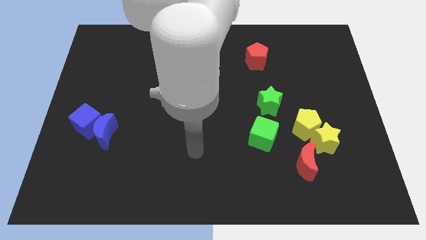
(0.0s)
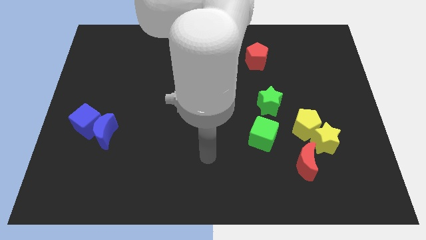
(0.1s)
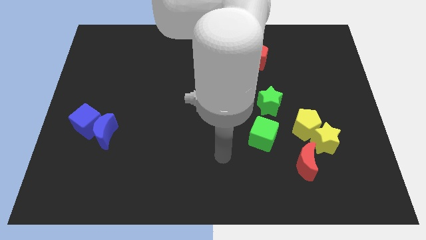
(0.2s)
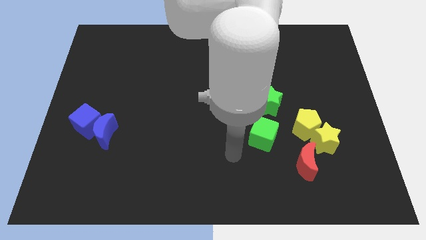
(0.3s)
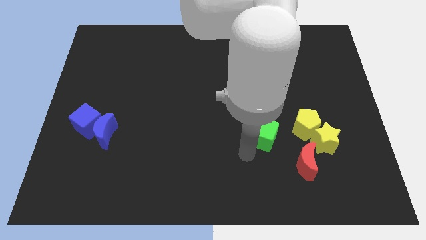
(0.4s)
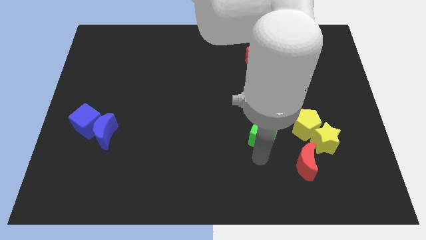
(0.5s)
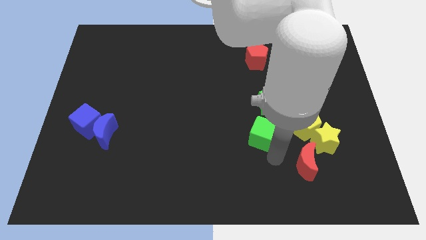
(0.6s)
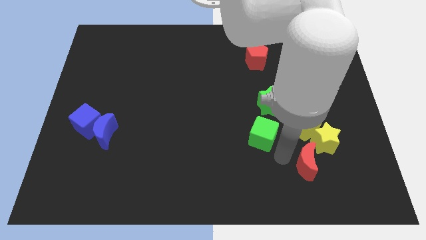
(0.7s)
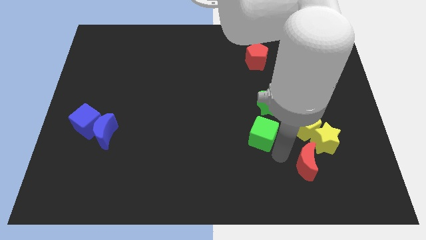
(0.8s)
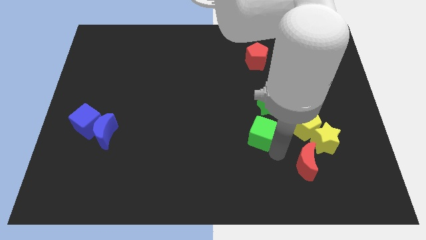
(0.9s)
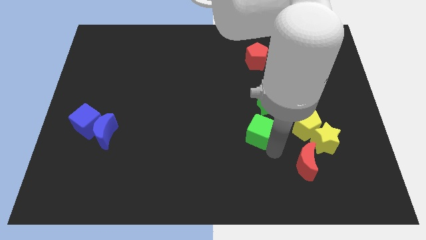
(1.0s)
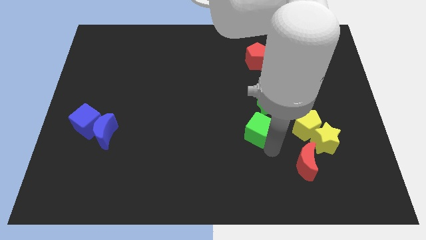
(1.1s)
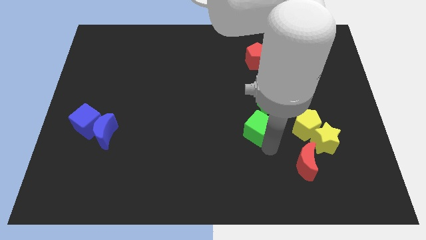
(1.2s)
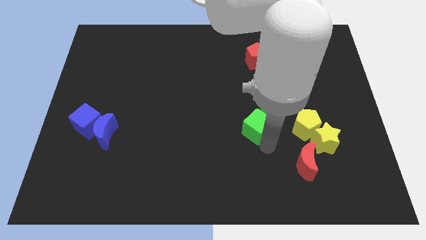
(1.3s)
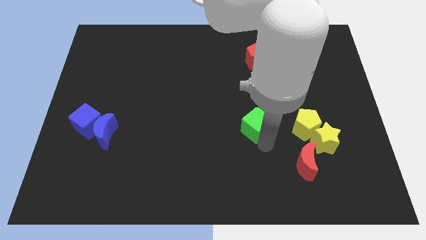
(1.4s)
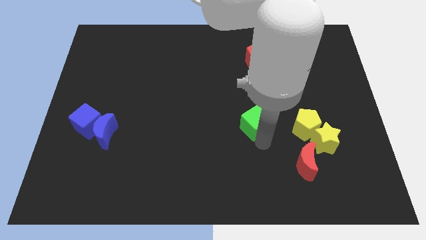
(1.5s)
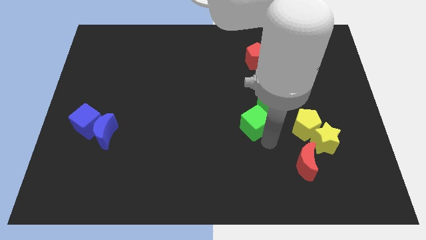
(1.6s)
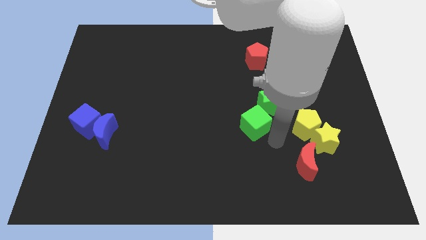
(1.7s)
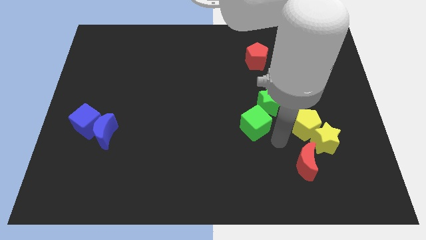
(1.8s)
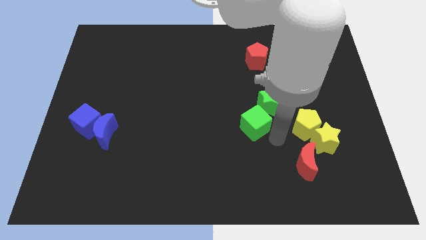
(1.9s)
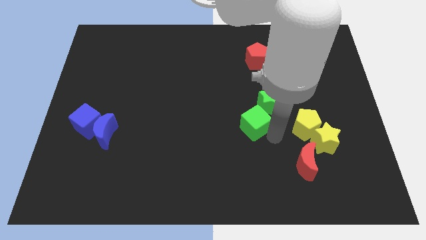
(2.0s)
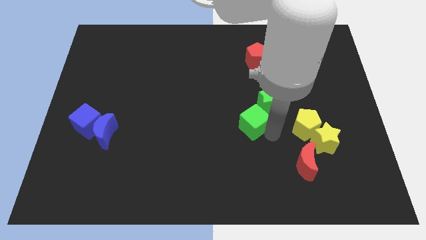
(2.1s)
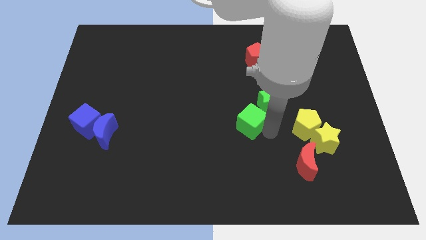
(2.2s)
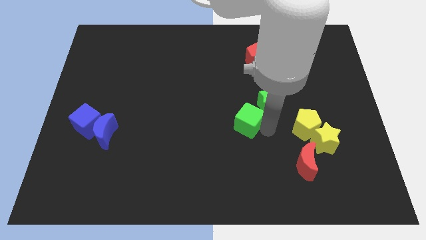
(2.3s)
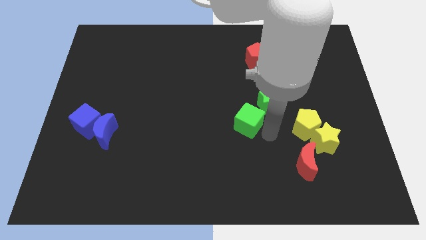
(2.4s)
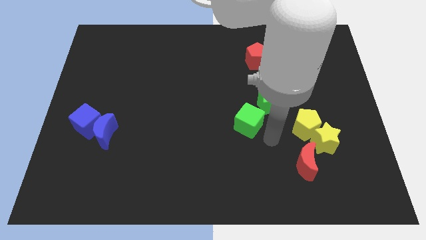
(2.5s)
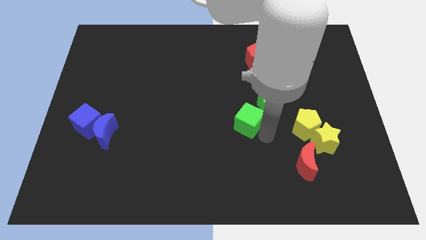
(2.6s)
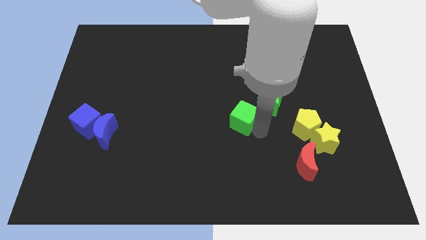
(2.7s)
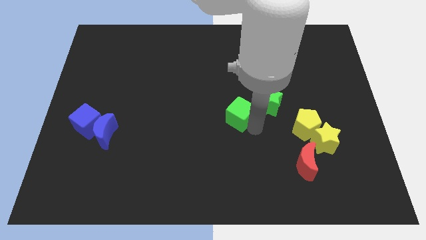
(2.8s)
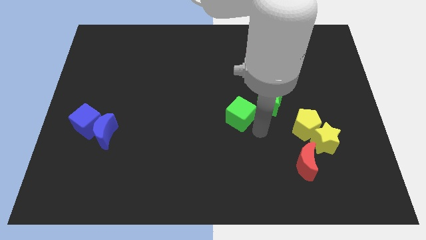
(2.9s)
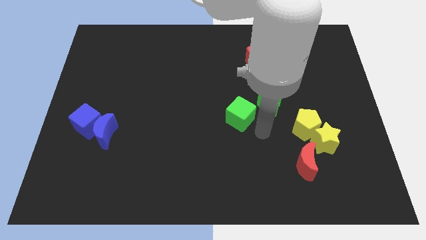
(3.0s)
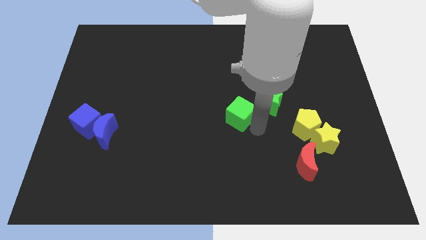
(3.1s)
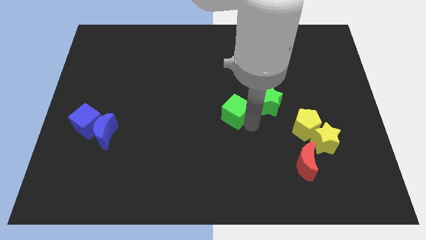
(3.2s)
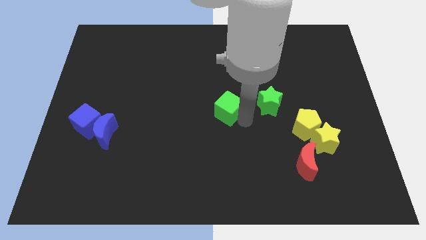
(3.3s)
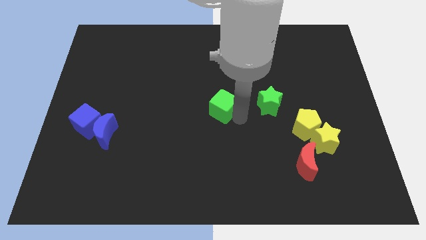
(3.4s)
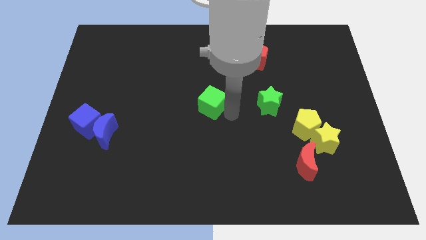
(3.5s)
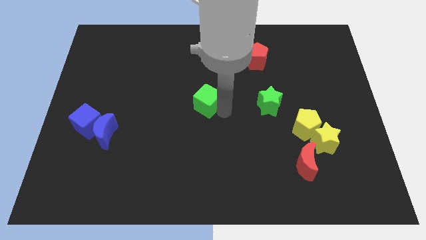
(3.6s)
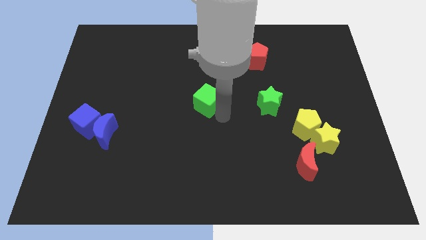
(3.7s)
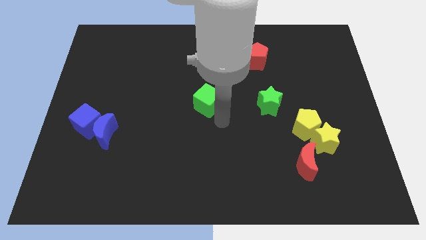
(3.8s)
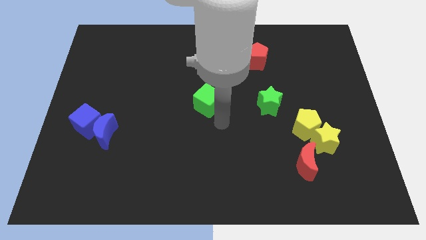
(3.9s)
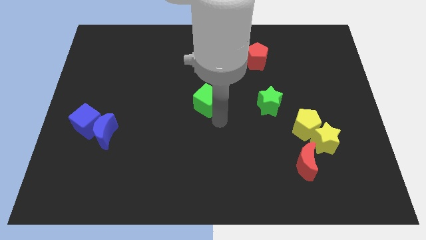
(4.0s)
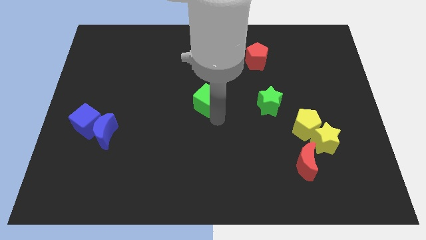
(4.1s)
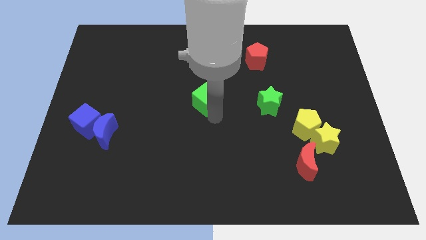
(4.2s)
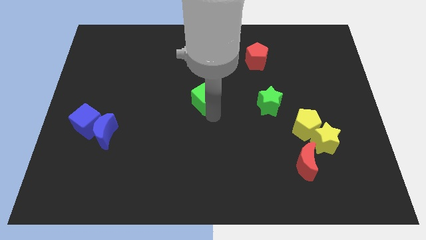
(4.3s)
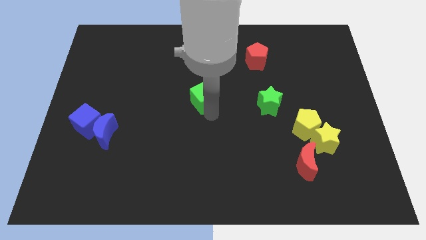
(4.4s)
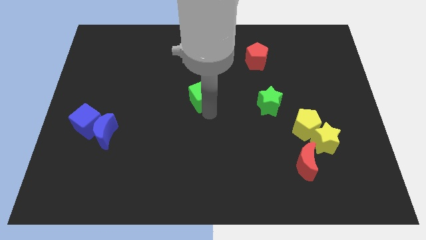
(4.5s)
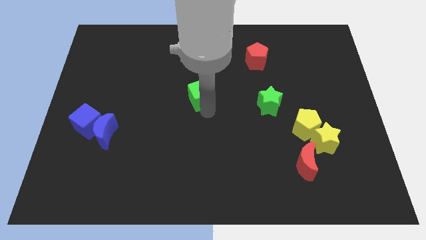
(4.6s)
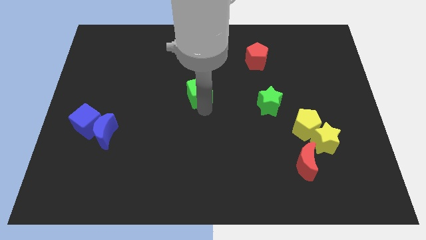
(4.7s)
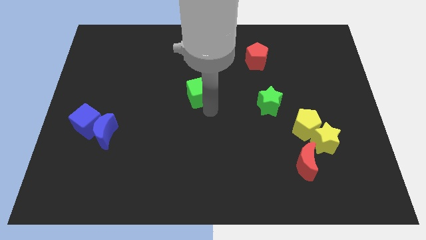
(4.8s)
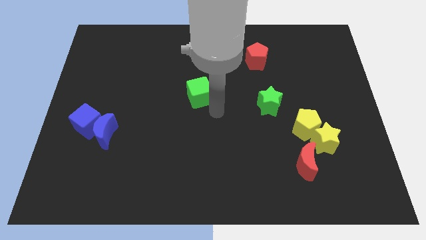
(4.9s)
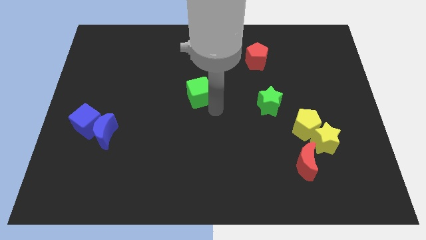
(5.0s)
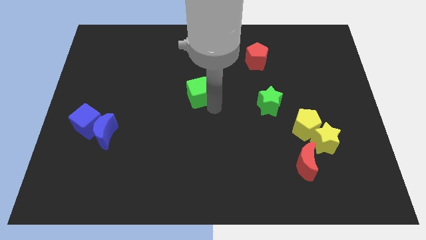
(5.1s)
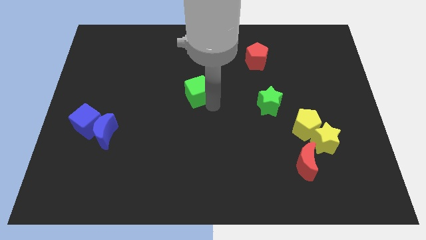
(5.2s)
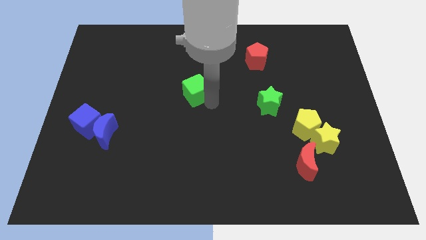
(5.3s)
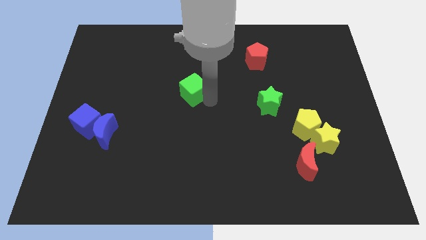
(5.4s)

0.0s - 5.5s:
slide the green cube diagonally up and to the left

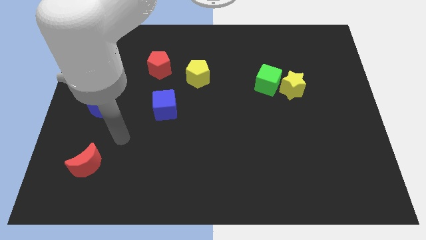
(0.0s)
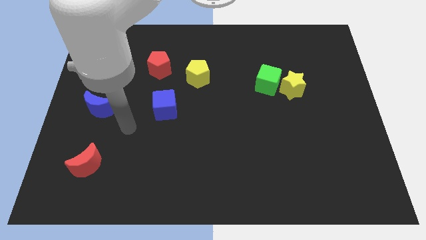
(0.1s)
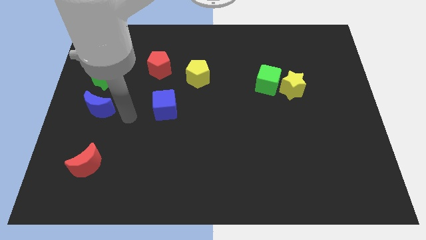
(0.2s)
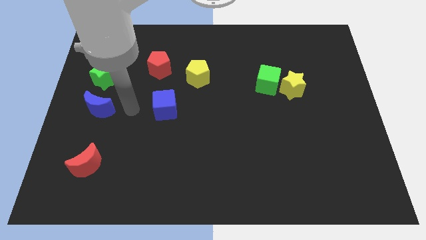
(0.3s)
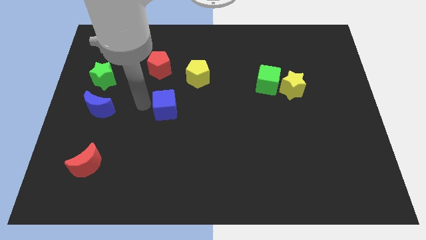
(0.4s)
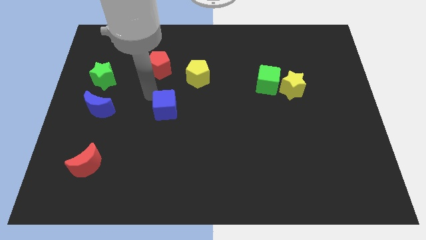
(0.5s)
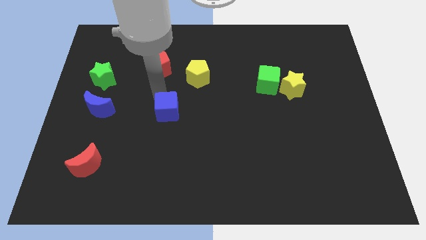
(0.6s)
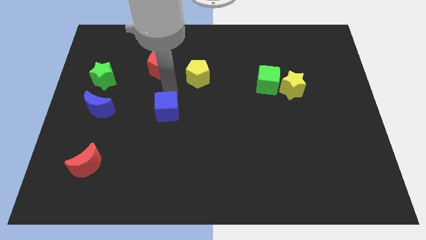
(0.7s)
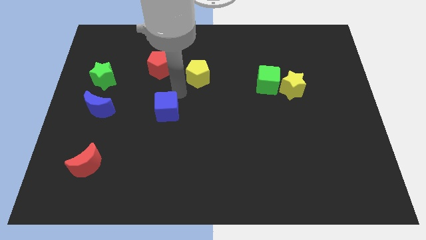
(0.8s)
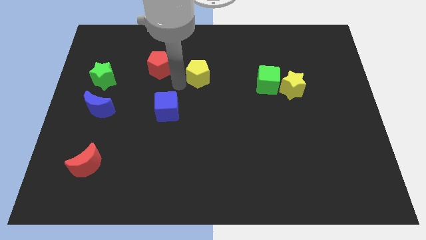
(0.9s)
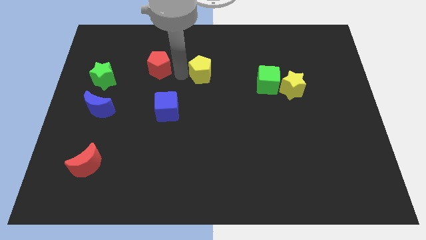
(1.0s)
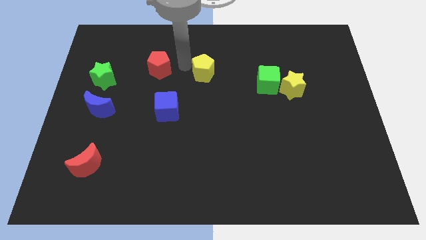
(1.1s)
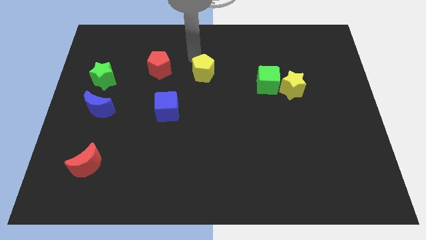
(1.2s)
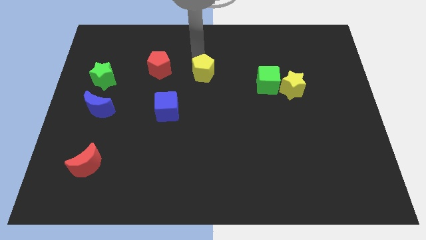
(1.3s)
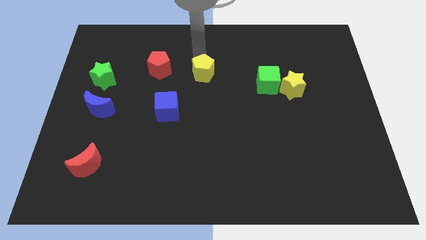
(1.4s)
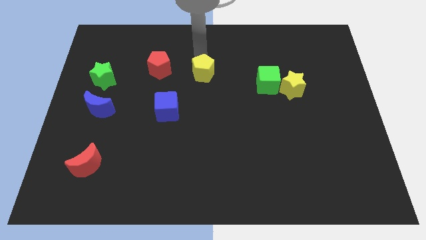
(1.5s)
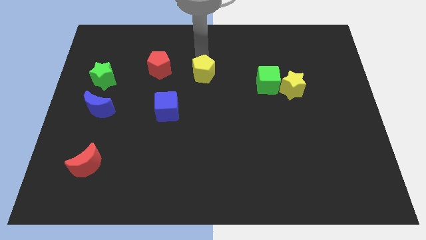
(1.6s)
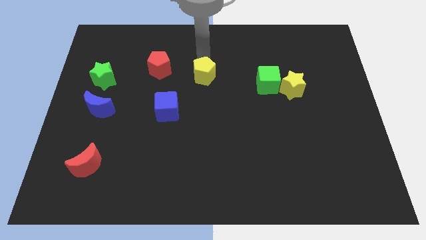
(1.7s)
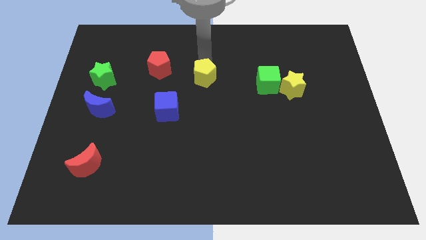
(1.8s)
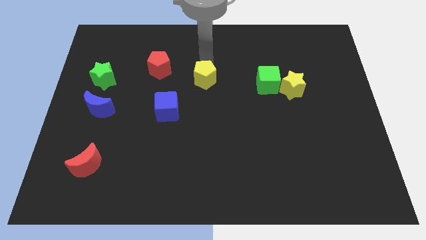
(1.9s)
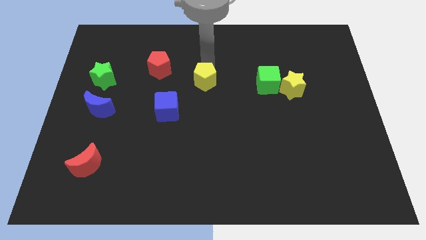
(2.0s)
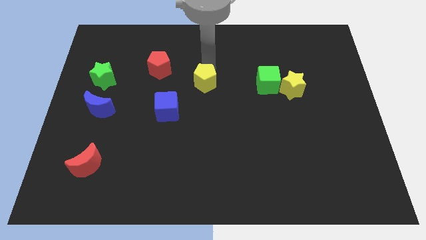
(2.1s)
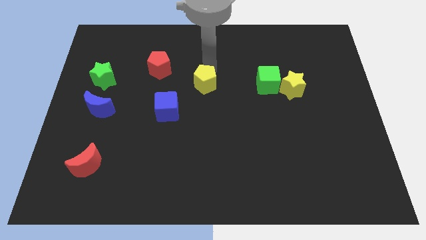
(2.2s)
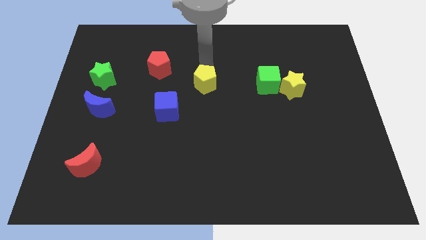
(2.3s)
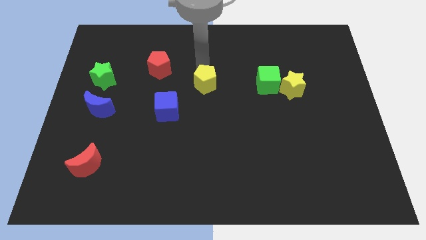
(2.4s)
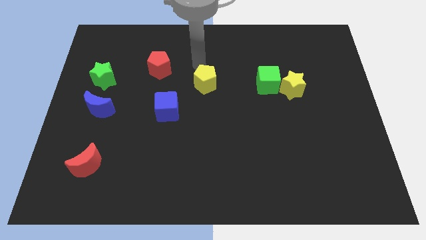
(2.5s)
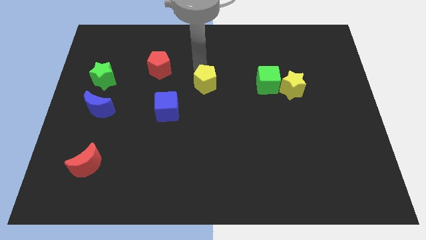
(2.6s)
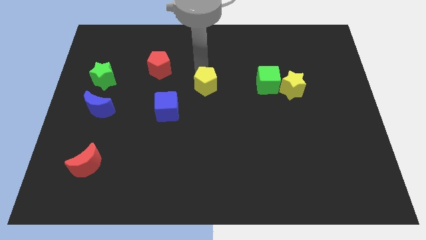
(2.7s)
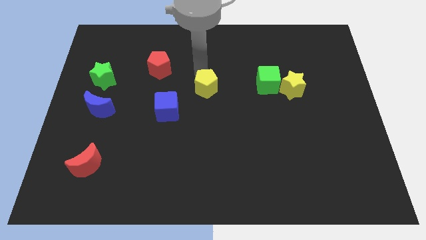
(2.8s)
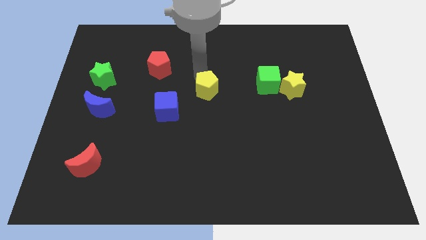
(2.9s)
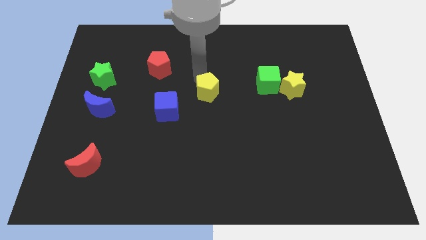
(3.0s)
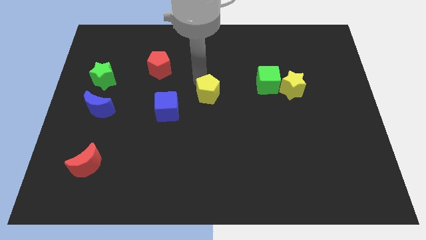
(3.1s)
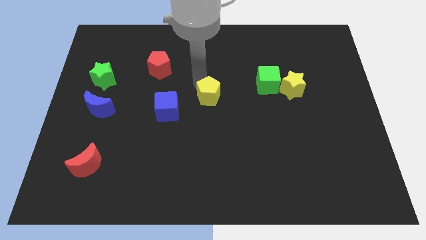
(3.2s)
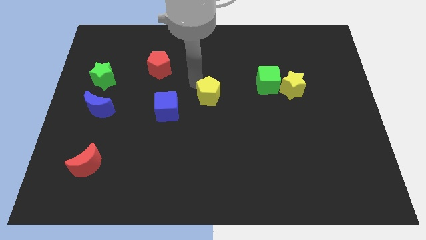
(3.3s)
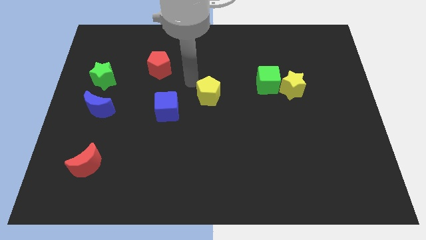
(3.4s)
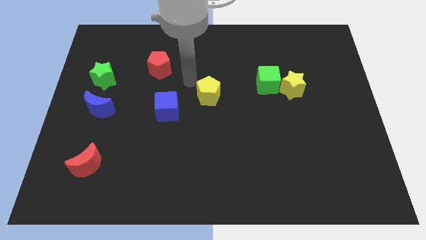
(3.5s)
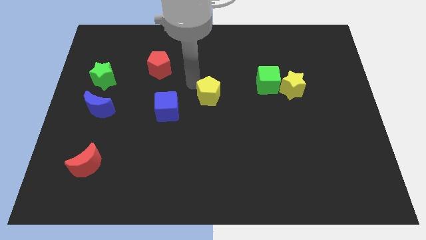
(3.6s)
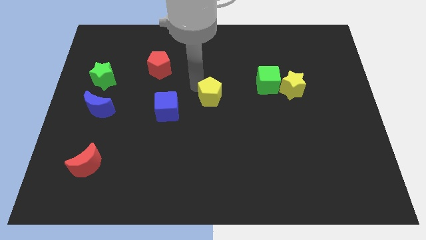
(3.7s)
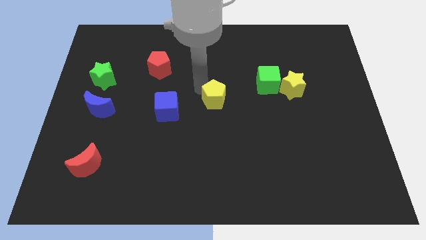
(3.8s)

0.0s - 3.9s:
push the yellow pentagon a little down and then right
